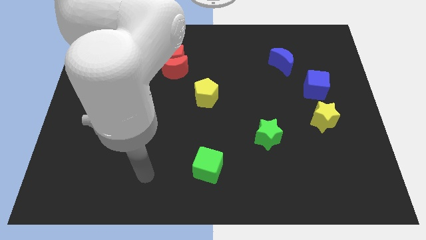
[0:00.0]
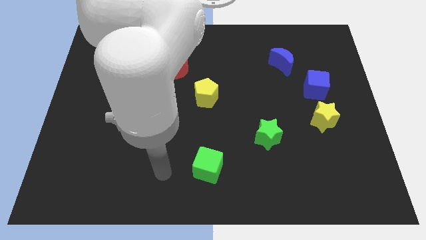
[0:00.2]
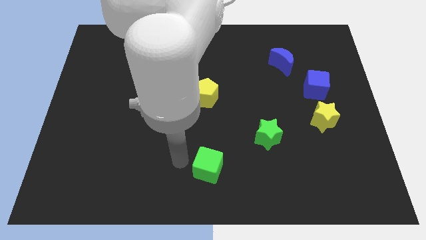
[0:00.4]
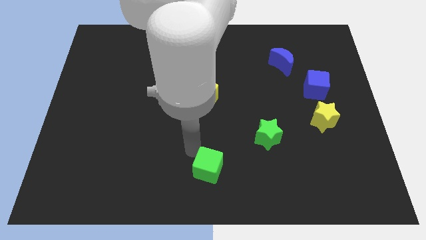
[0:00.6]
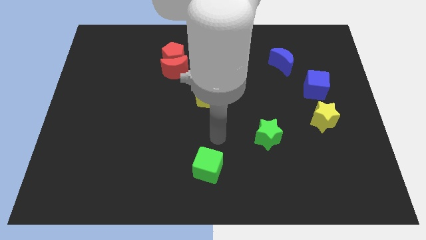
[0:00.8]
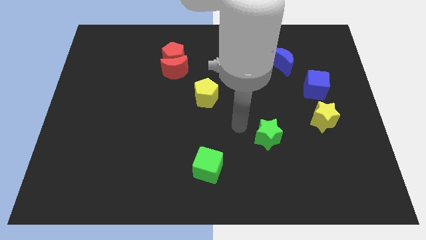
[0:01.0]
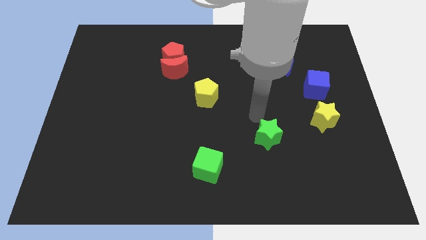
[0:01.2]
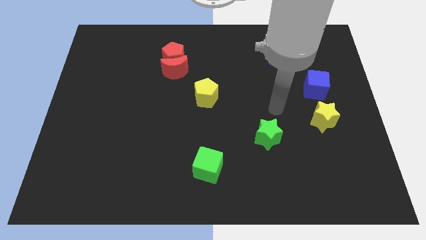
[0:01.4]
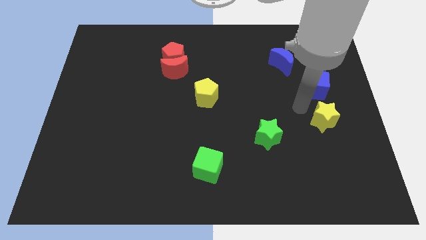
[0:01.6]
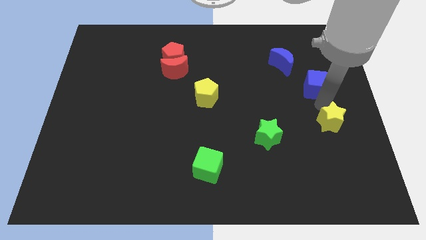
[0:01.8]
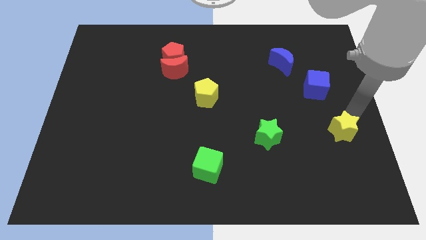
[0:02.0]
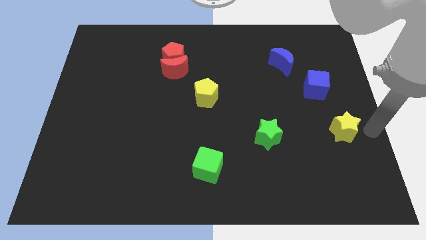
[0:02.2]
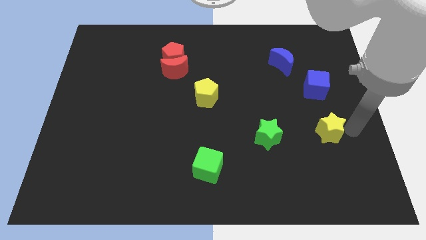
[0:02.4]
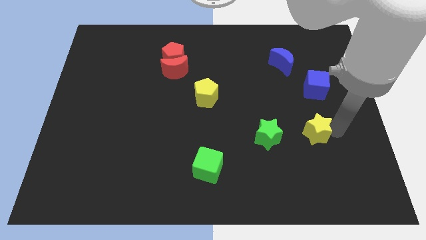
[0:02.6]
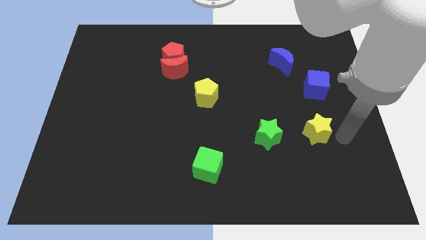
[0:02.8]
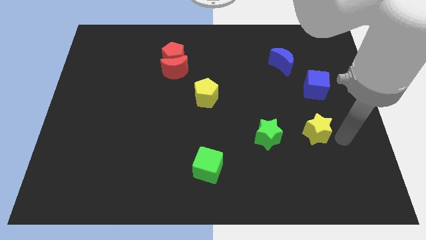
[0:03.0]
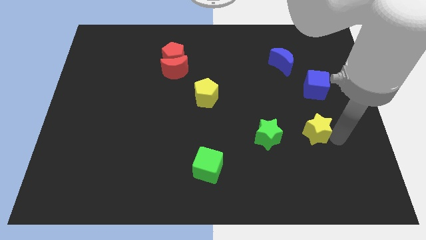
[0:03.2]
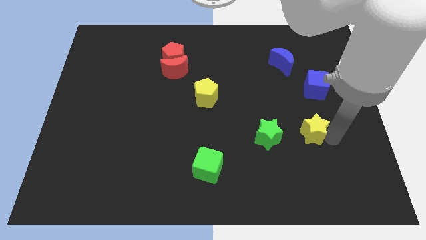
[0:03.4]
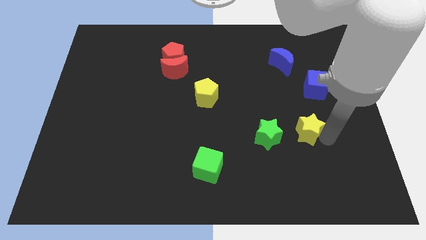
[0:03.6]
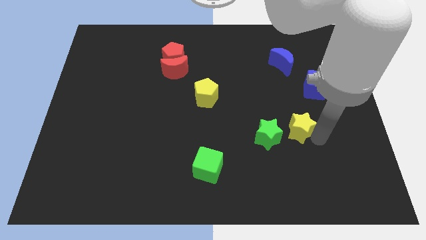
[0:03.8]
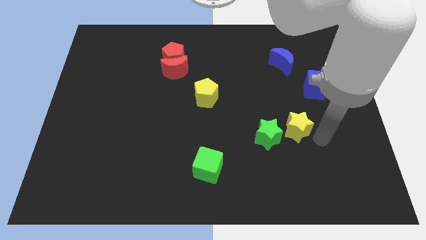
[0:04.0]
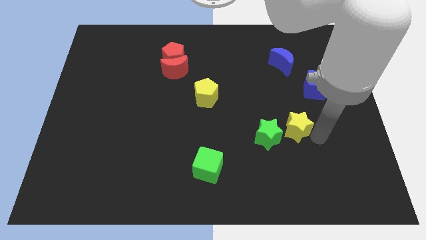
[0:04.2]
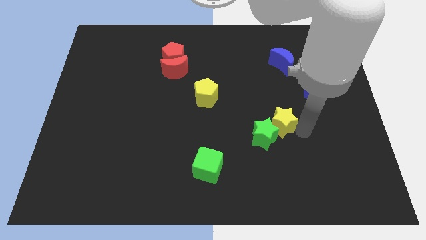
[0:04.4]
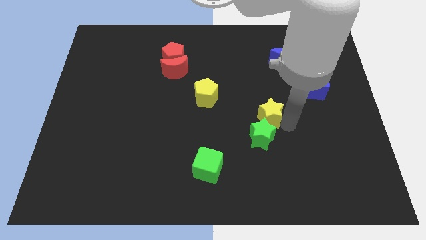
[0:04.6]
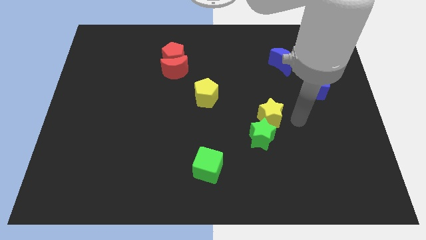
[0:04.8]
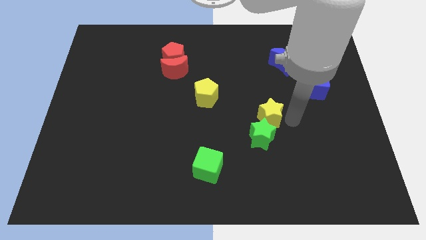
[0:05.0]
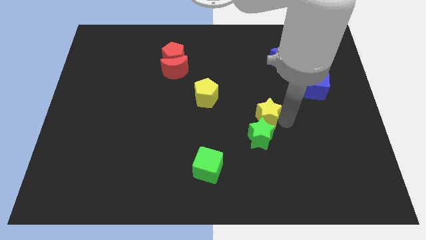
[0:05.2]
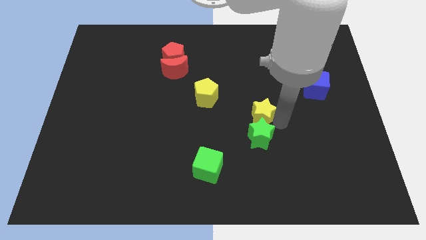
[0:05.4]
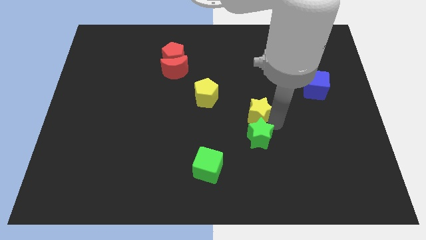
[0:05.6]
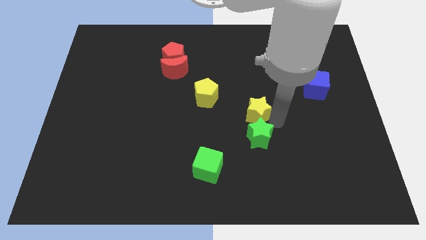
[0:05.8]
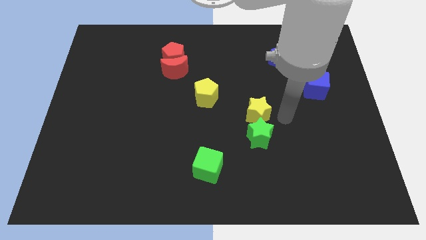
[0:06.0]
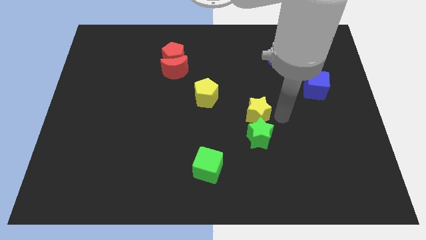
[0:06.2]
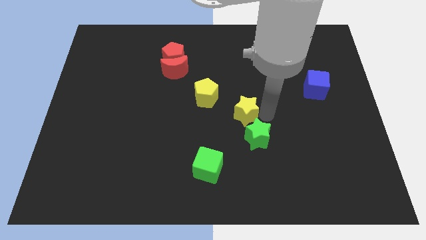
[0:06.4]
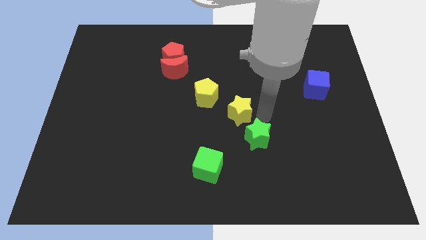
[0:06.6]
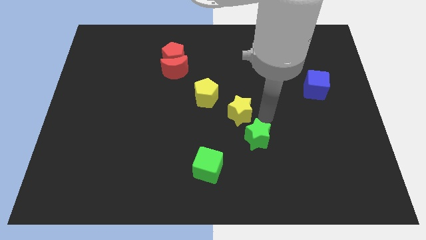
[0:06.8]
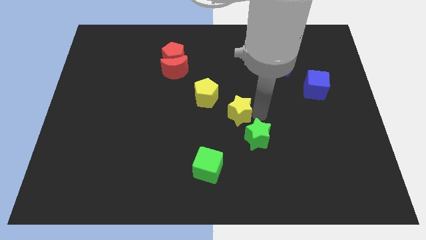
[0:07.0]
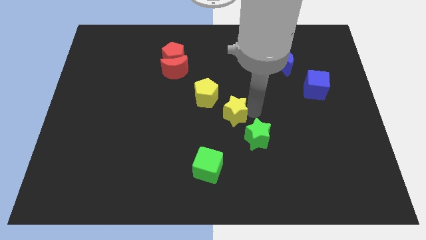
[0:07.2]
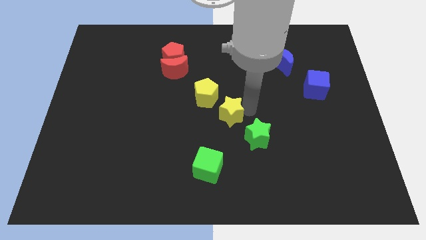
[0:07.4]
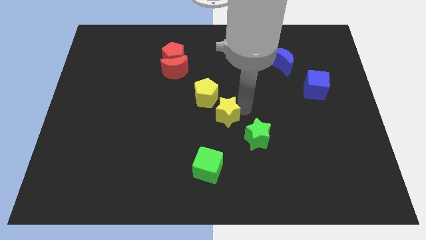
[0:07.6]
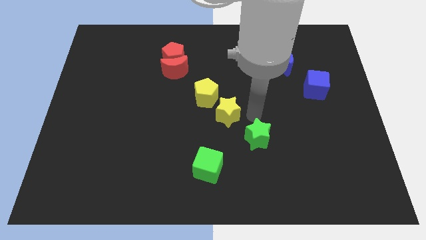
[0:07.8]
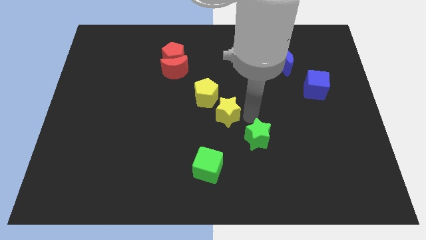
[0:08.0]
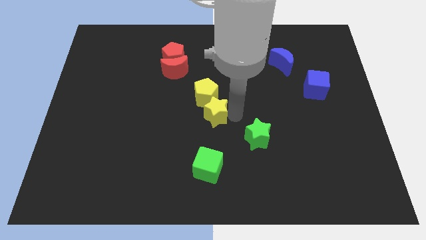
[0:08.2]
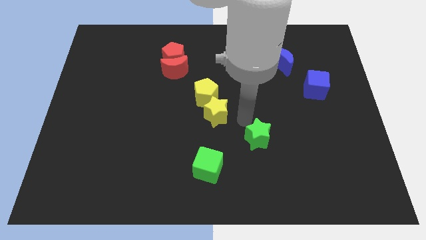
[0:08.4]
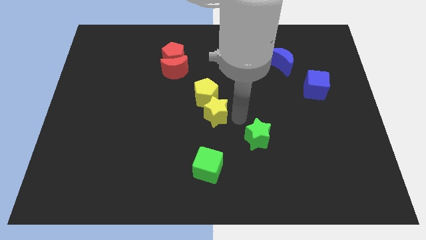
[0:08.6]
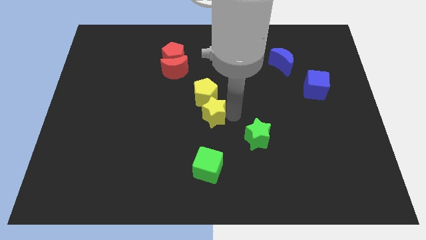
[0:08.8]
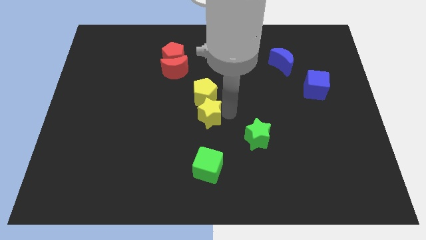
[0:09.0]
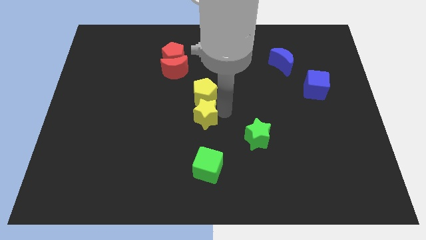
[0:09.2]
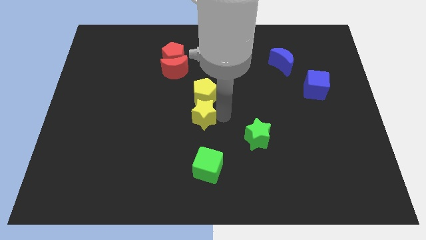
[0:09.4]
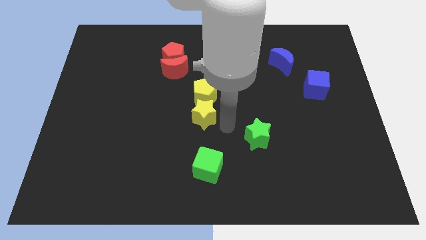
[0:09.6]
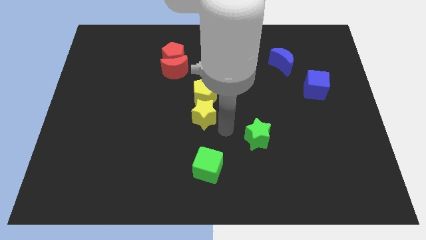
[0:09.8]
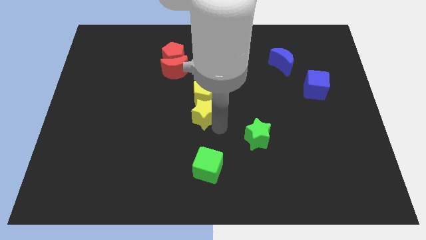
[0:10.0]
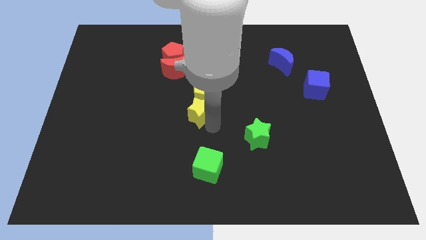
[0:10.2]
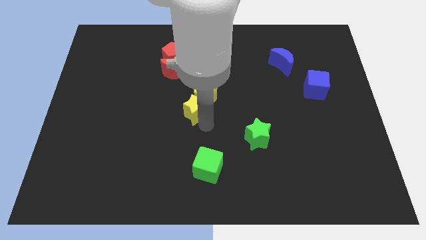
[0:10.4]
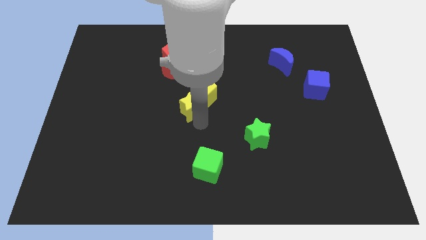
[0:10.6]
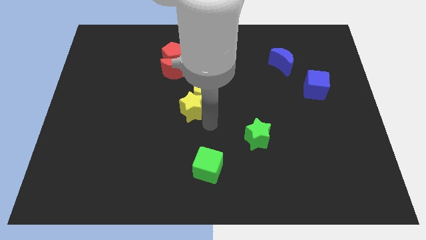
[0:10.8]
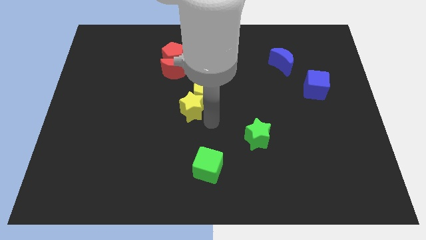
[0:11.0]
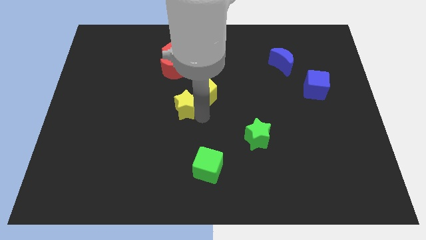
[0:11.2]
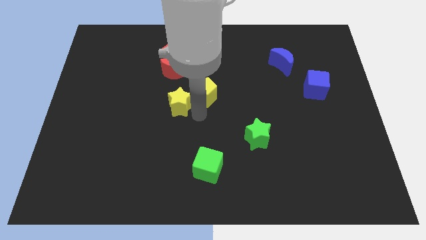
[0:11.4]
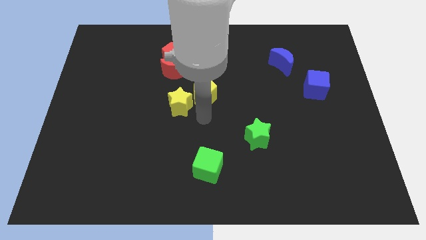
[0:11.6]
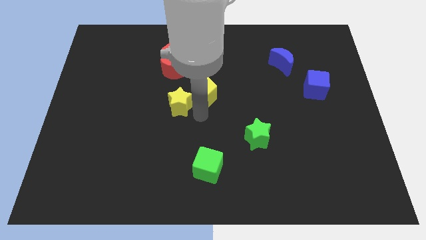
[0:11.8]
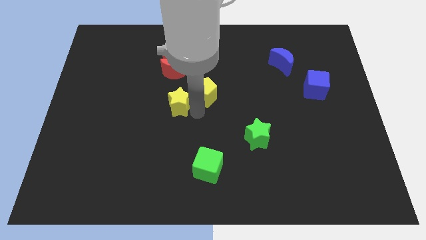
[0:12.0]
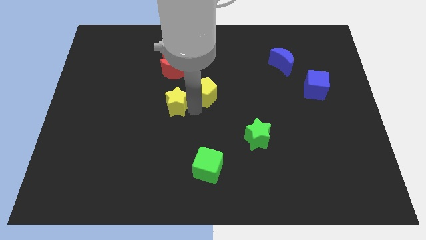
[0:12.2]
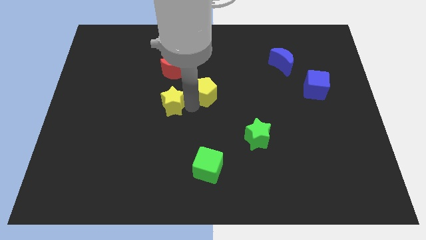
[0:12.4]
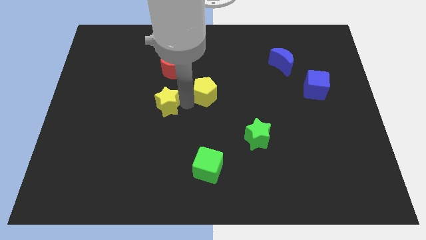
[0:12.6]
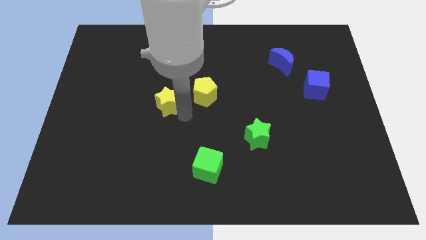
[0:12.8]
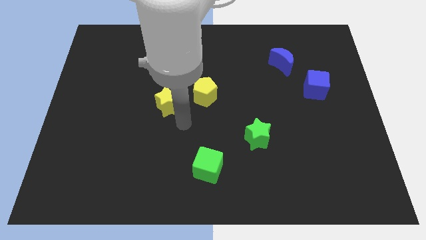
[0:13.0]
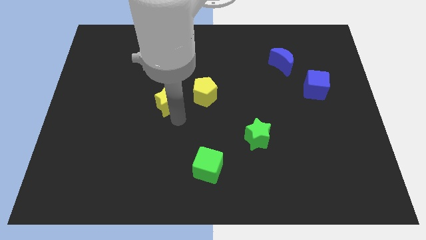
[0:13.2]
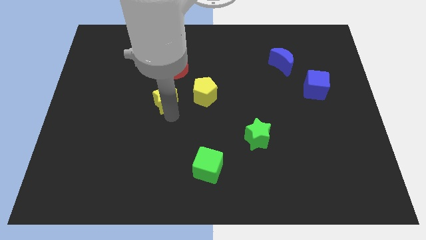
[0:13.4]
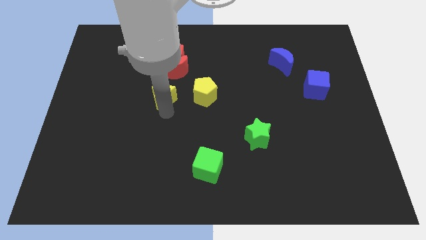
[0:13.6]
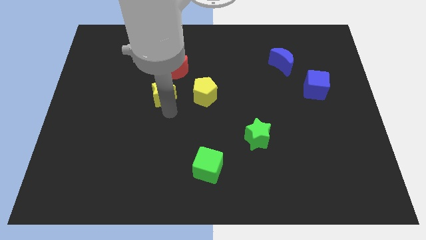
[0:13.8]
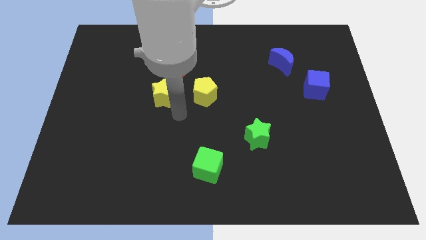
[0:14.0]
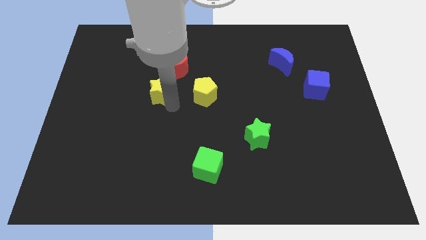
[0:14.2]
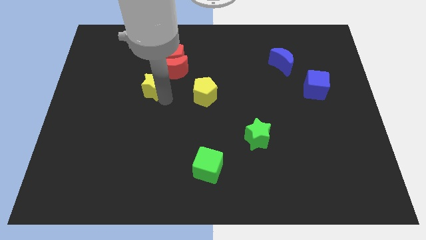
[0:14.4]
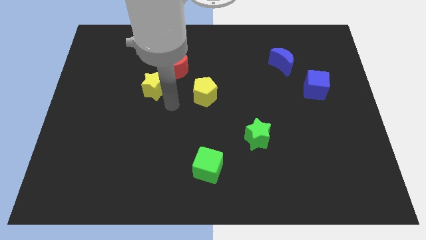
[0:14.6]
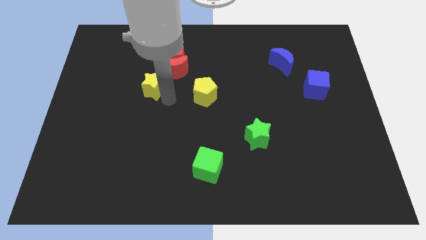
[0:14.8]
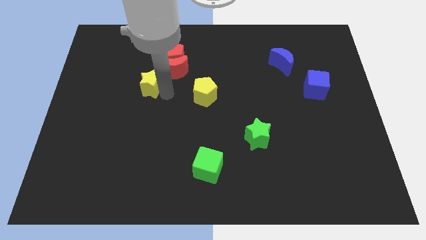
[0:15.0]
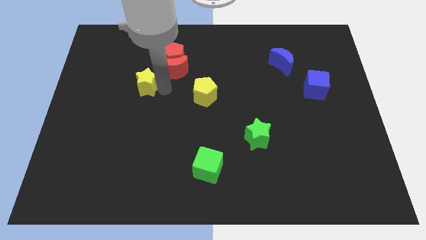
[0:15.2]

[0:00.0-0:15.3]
push the yellow star left of the red moon
